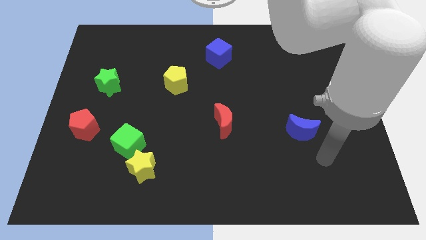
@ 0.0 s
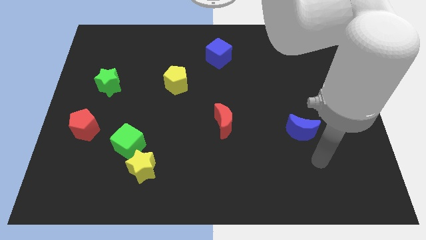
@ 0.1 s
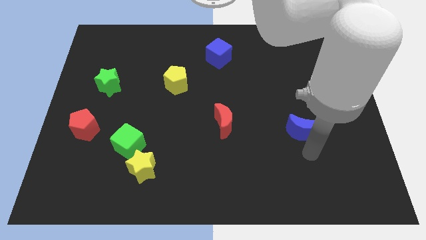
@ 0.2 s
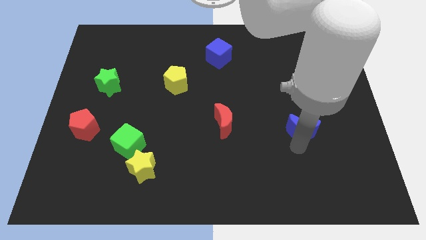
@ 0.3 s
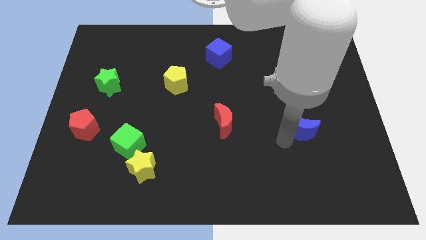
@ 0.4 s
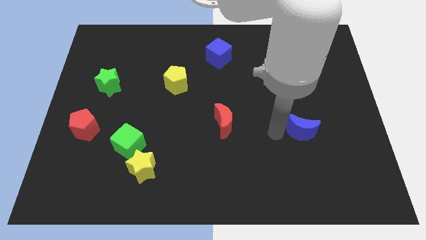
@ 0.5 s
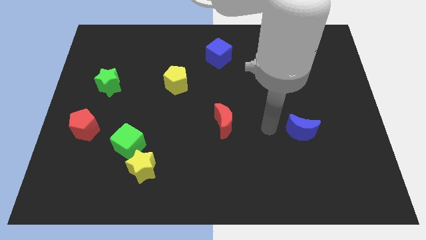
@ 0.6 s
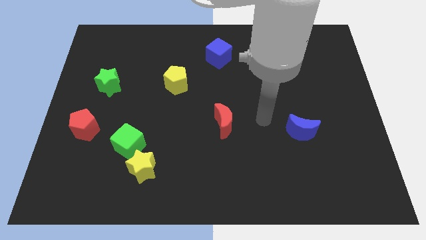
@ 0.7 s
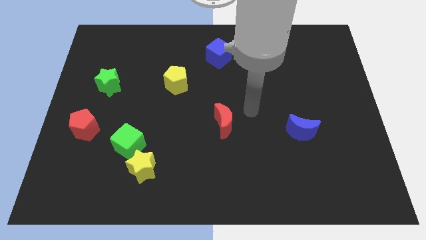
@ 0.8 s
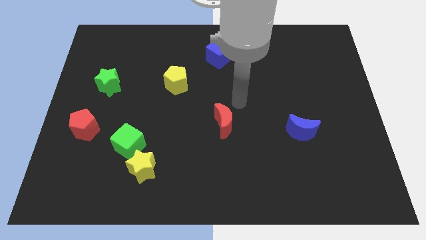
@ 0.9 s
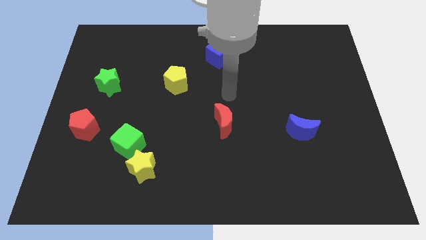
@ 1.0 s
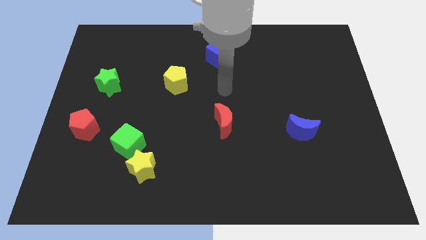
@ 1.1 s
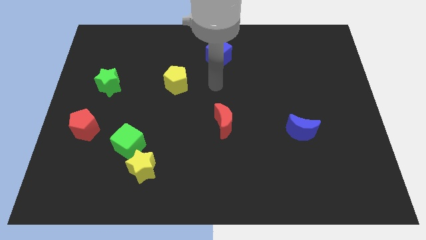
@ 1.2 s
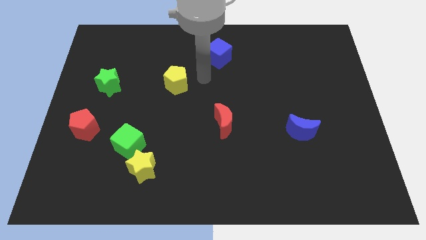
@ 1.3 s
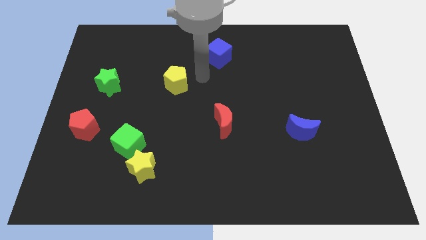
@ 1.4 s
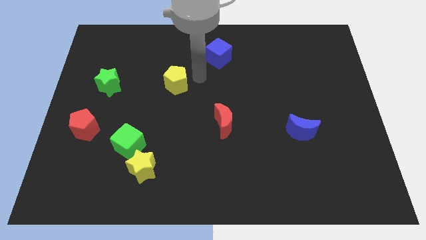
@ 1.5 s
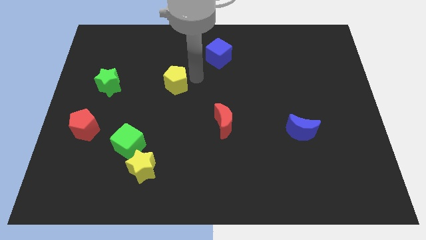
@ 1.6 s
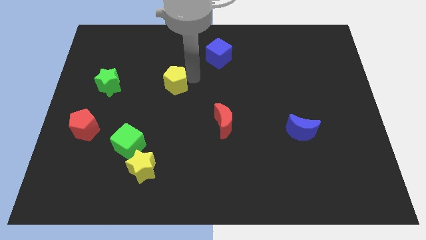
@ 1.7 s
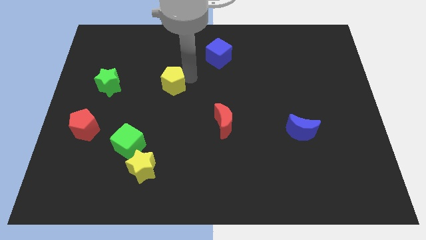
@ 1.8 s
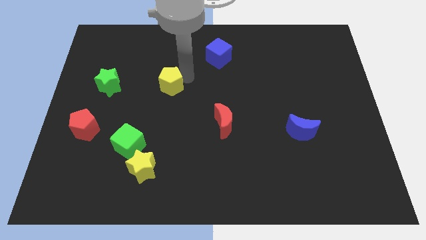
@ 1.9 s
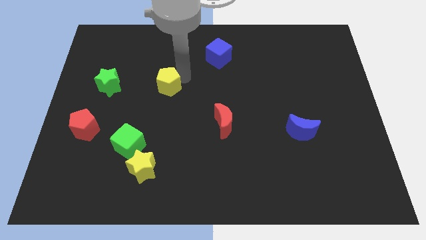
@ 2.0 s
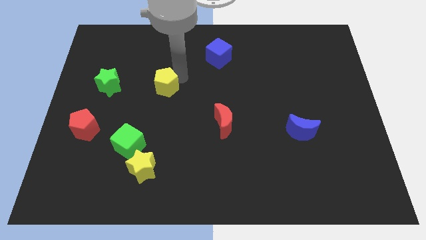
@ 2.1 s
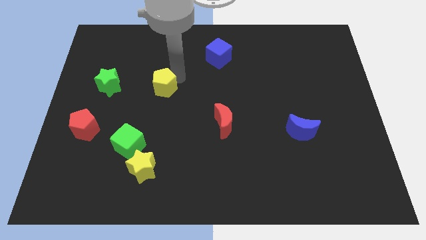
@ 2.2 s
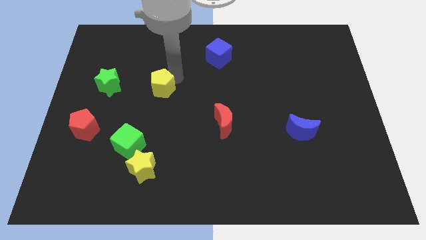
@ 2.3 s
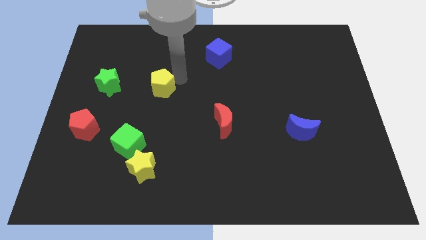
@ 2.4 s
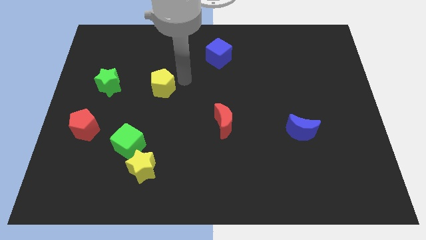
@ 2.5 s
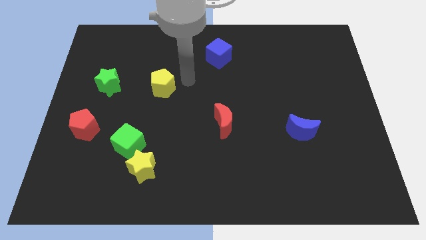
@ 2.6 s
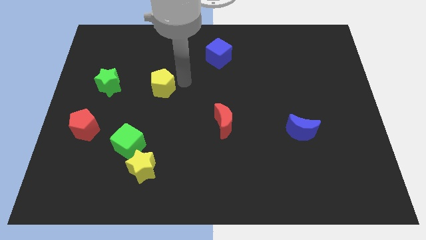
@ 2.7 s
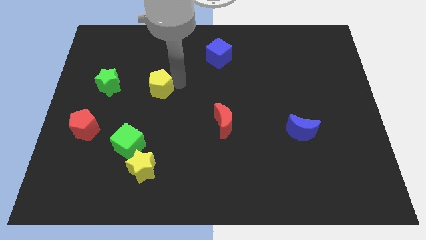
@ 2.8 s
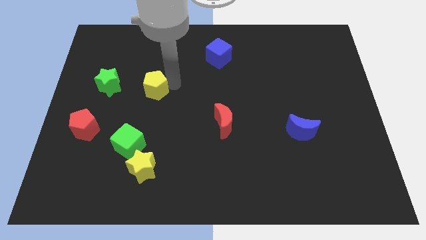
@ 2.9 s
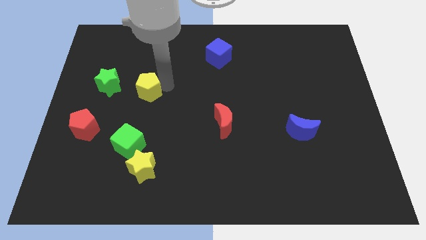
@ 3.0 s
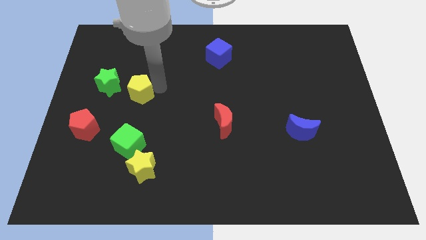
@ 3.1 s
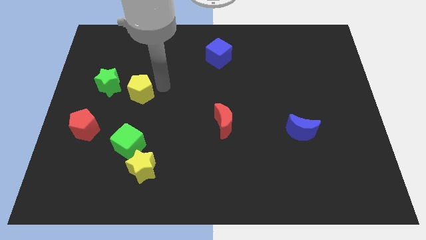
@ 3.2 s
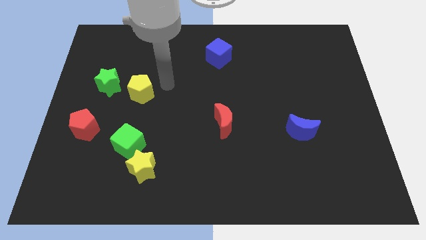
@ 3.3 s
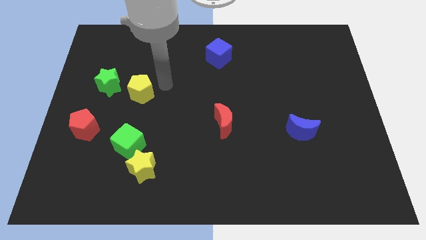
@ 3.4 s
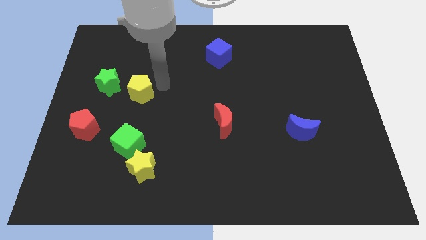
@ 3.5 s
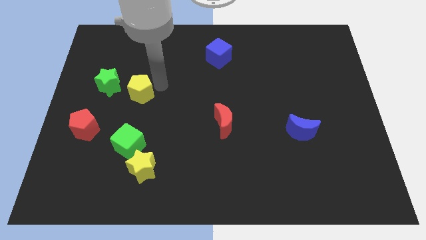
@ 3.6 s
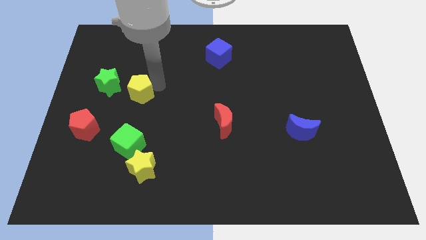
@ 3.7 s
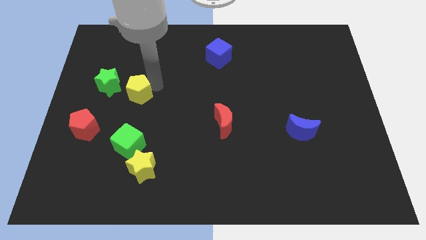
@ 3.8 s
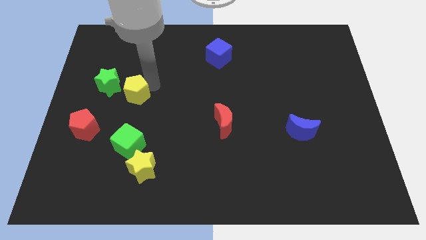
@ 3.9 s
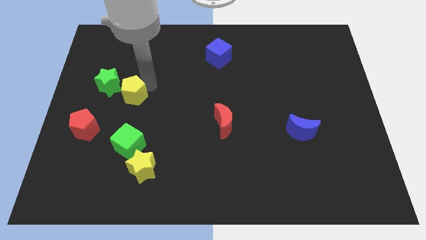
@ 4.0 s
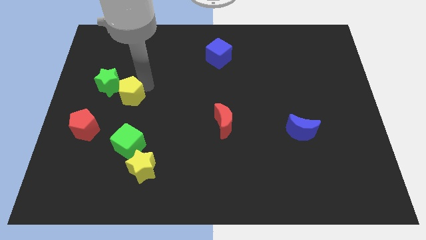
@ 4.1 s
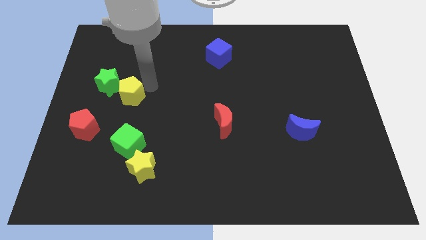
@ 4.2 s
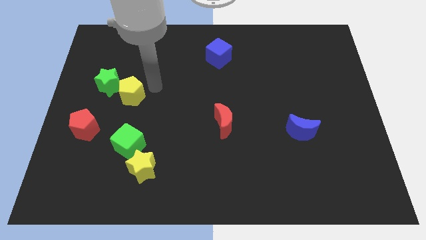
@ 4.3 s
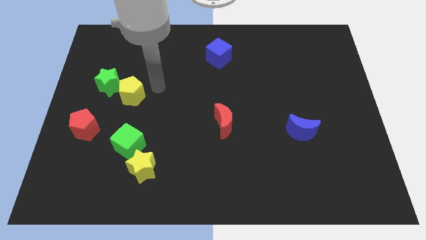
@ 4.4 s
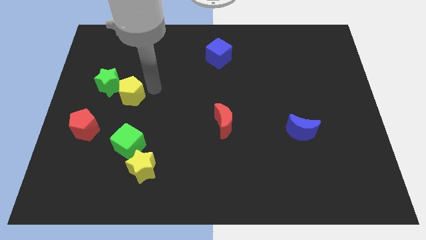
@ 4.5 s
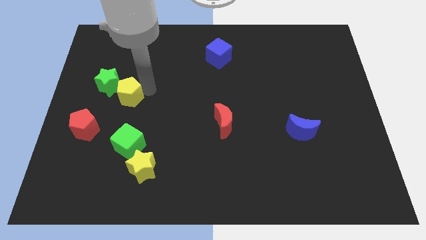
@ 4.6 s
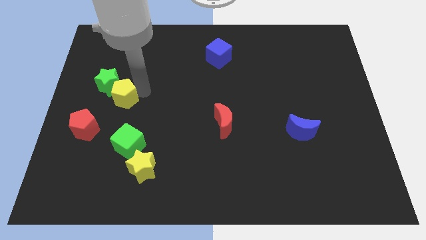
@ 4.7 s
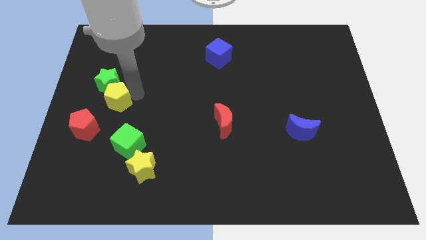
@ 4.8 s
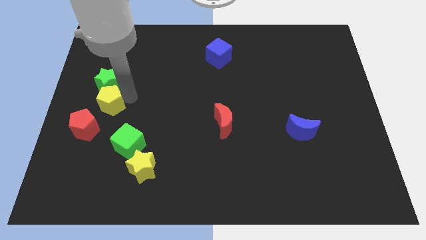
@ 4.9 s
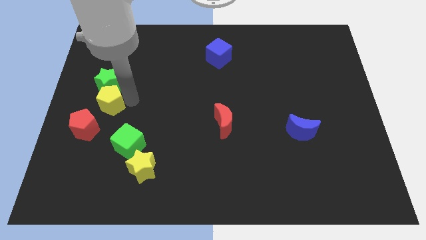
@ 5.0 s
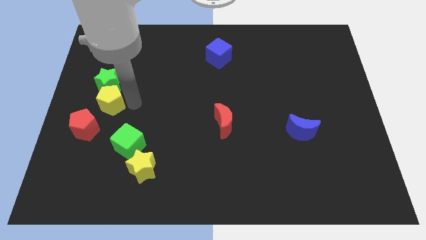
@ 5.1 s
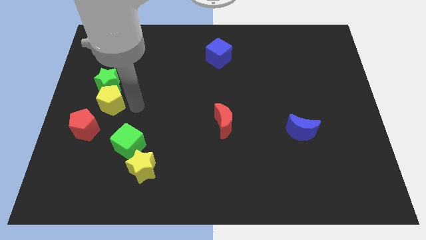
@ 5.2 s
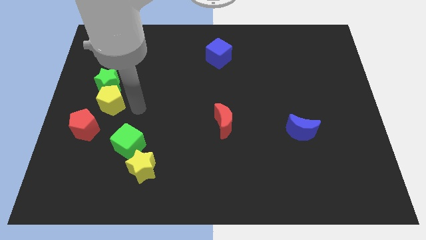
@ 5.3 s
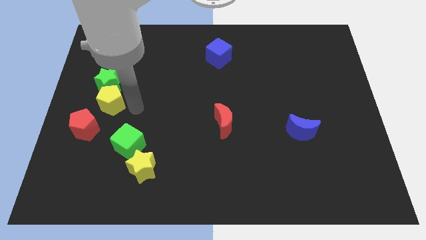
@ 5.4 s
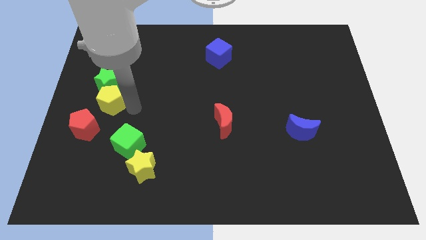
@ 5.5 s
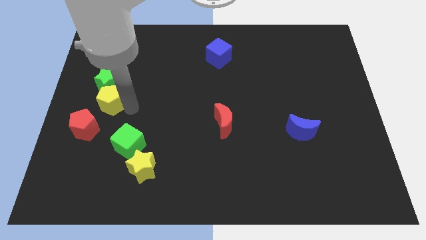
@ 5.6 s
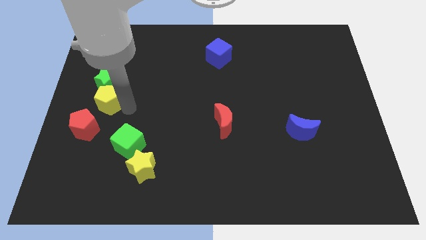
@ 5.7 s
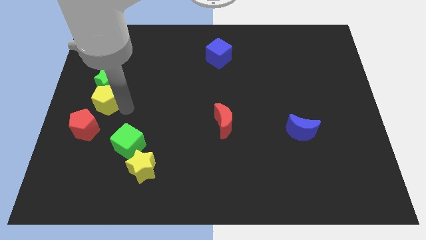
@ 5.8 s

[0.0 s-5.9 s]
push the yellow pentagon to the left side of the board

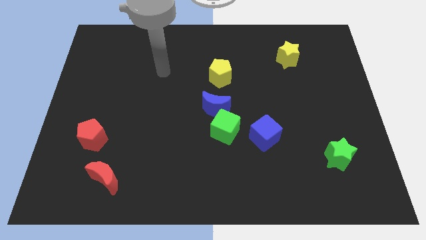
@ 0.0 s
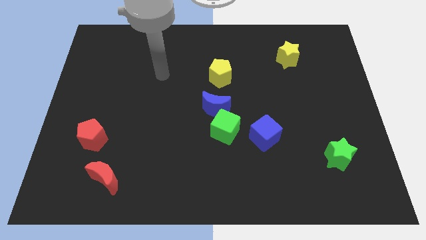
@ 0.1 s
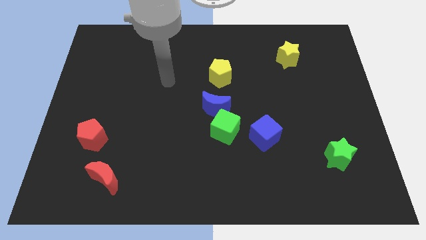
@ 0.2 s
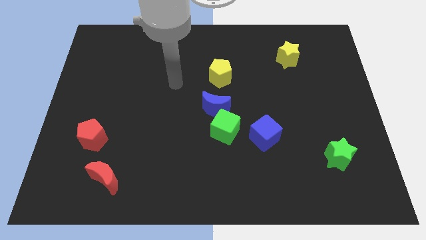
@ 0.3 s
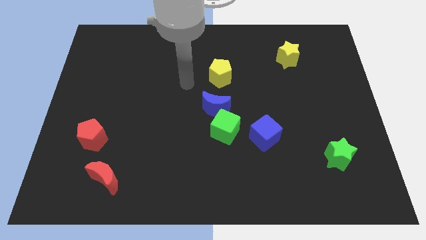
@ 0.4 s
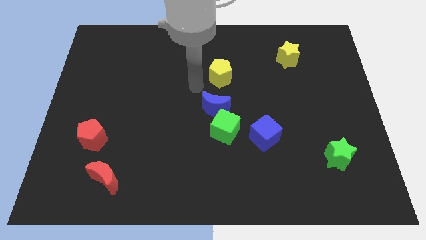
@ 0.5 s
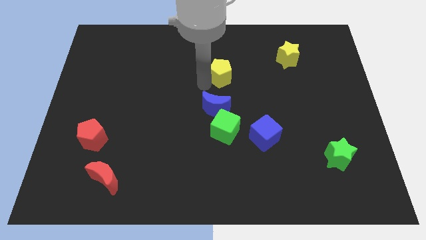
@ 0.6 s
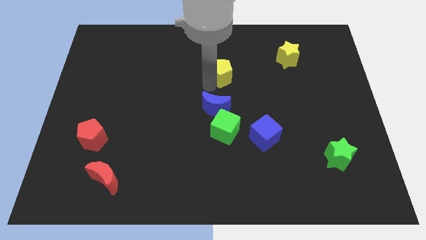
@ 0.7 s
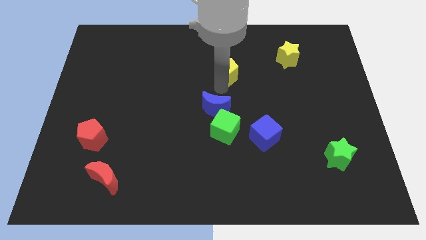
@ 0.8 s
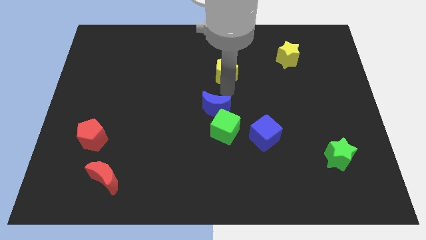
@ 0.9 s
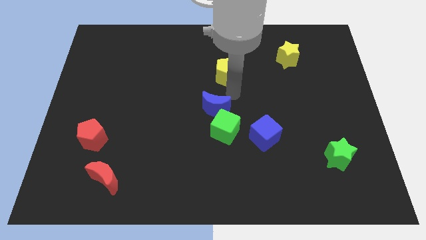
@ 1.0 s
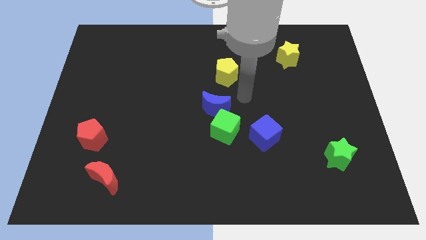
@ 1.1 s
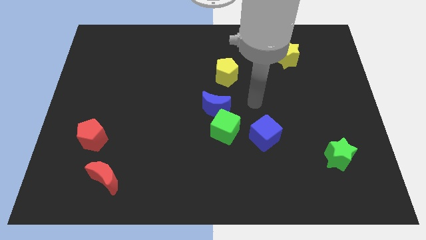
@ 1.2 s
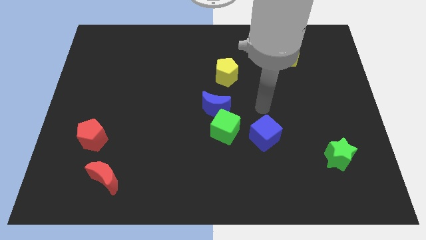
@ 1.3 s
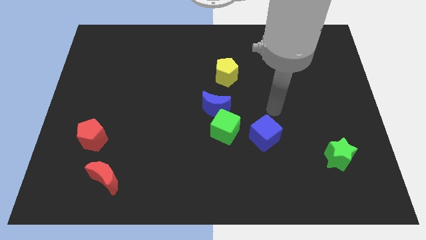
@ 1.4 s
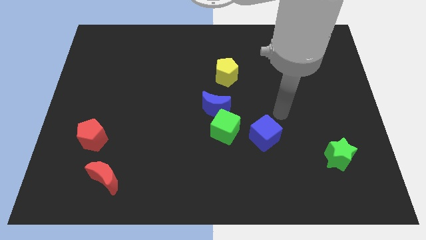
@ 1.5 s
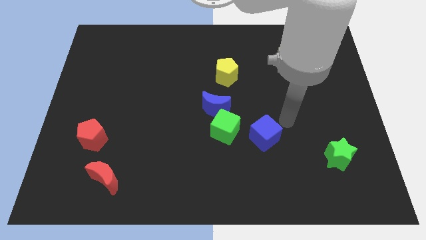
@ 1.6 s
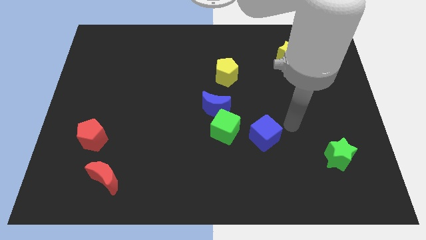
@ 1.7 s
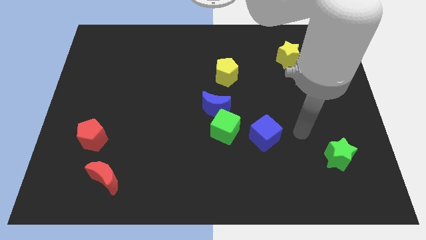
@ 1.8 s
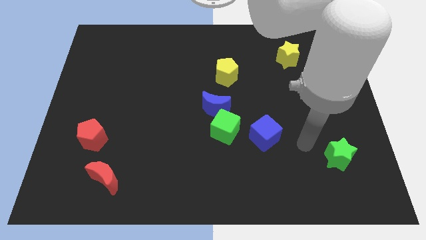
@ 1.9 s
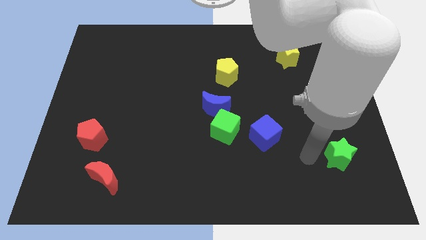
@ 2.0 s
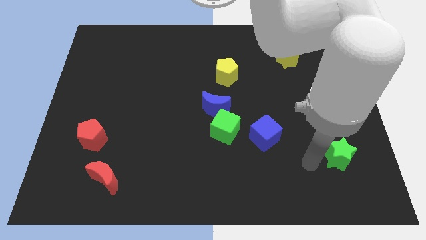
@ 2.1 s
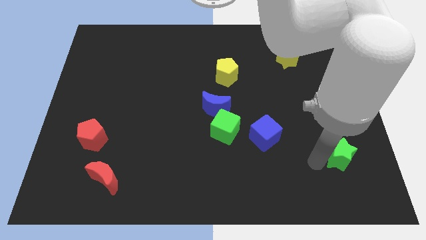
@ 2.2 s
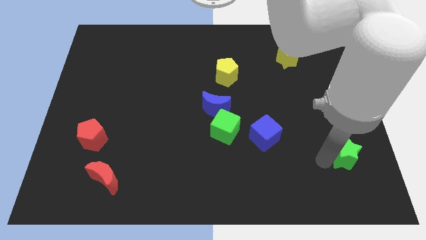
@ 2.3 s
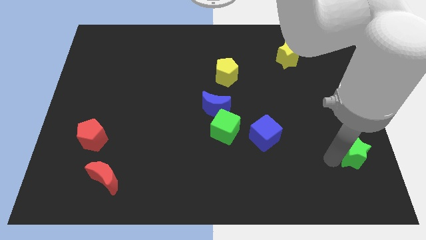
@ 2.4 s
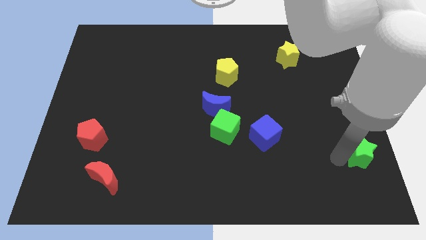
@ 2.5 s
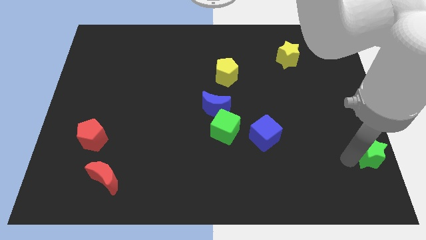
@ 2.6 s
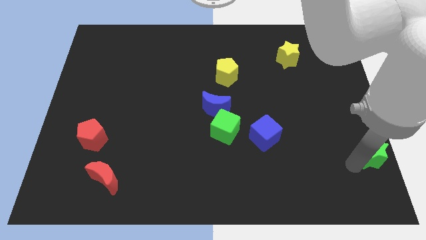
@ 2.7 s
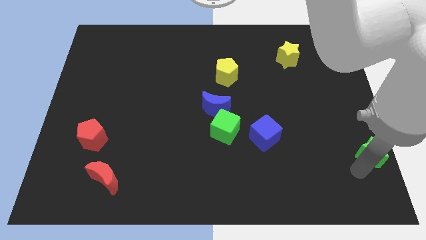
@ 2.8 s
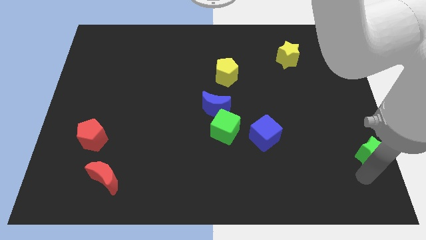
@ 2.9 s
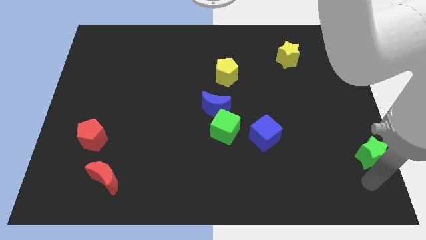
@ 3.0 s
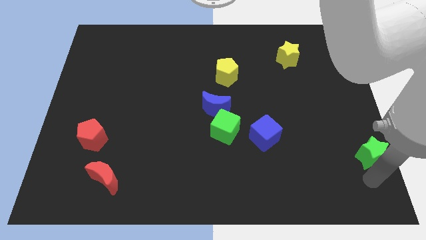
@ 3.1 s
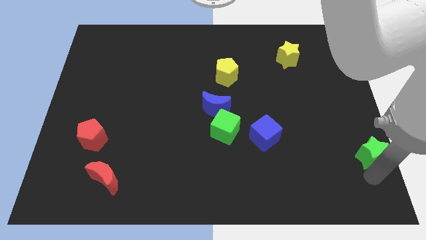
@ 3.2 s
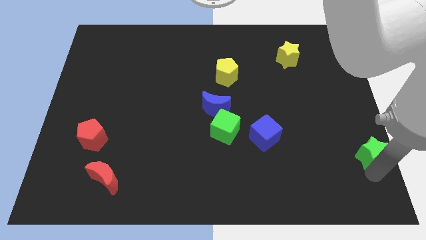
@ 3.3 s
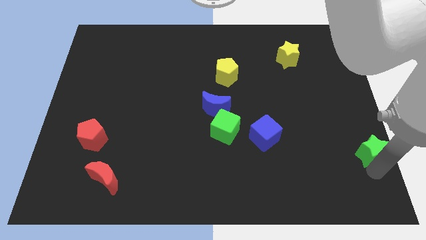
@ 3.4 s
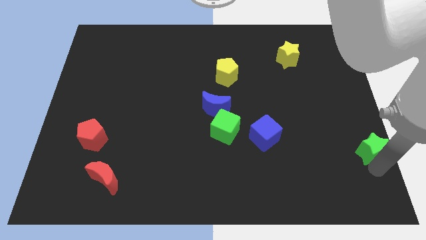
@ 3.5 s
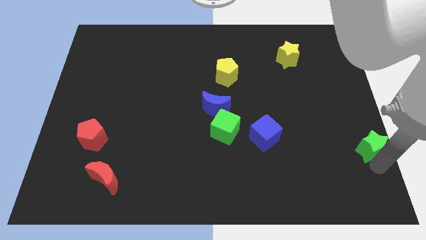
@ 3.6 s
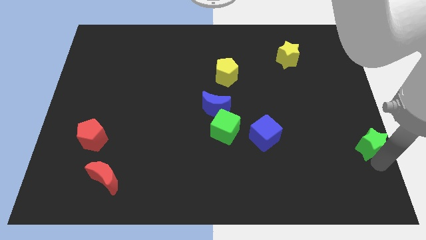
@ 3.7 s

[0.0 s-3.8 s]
slide the green star to the right side
